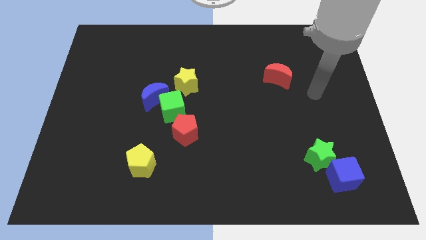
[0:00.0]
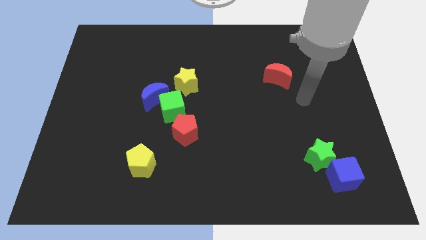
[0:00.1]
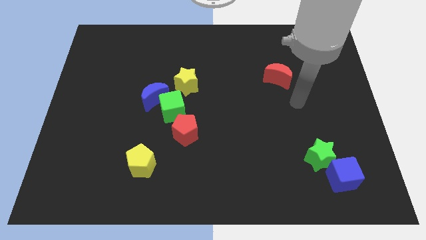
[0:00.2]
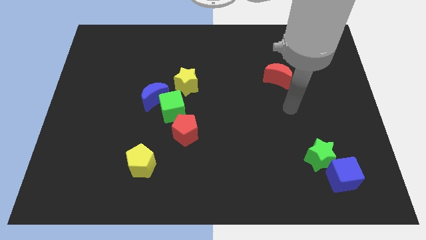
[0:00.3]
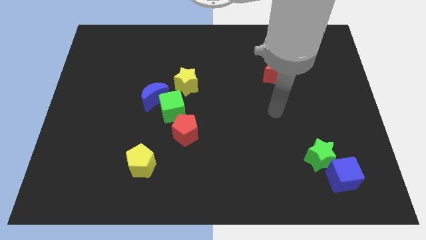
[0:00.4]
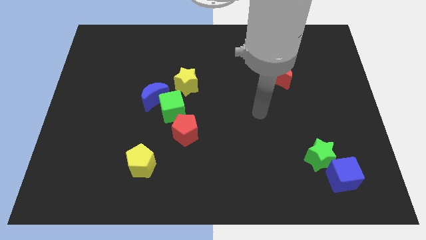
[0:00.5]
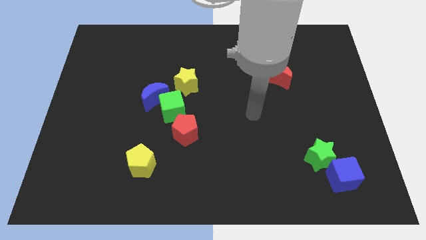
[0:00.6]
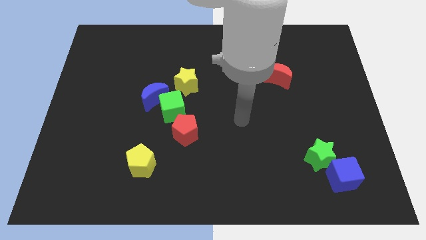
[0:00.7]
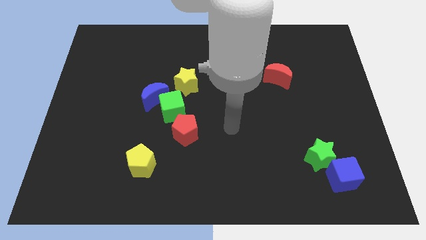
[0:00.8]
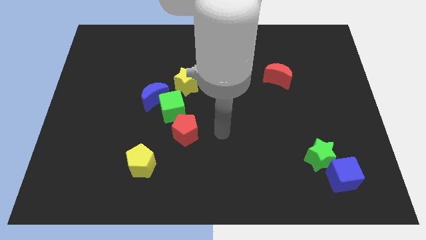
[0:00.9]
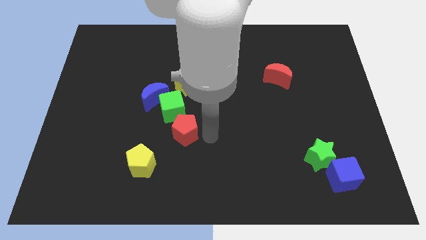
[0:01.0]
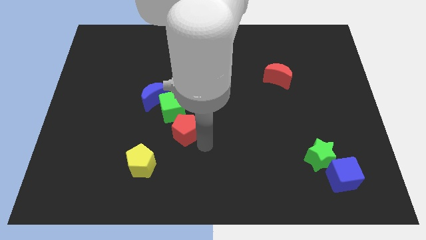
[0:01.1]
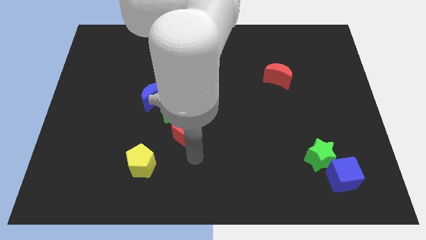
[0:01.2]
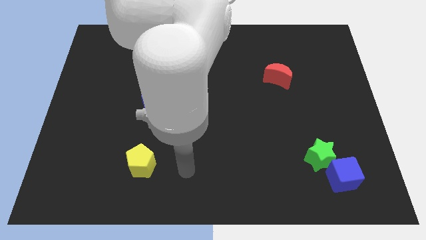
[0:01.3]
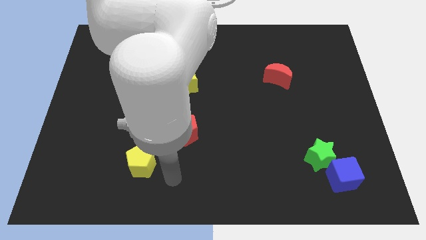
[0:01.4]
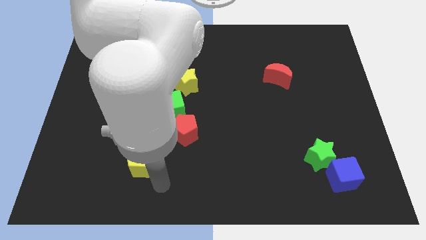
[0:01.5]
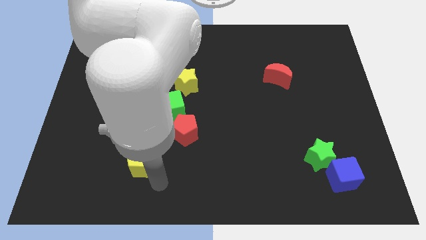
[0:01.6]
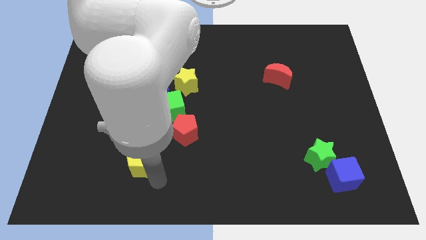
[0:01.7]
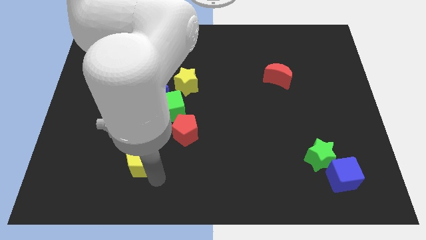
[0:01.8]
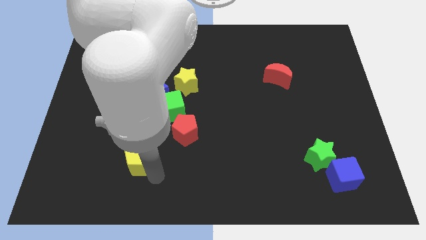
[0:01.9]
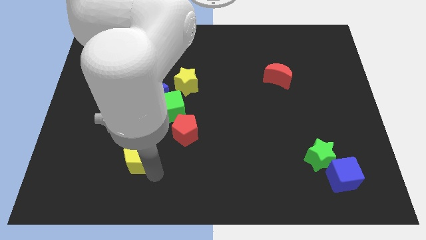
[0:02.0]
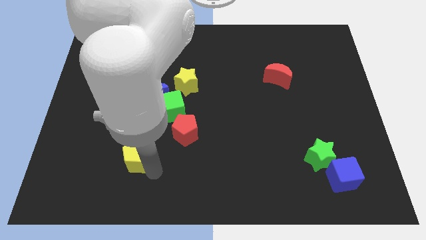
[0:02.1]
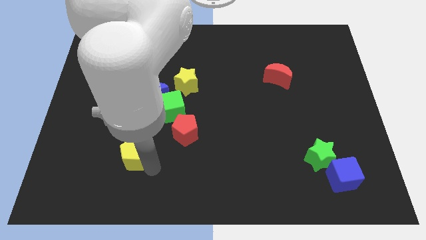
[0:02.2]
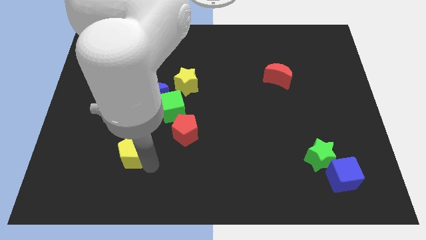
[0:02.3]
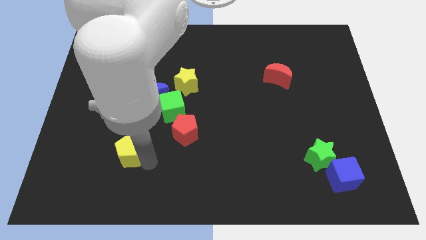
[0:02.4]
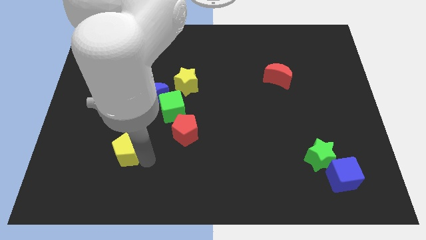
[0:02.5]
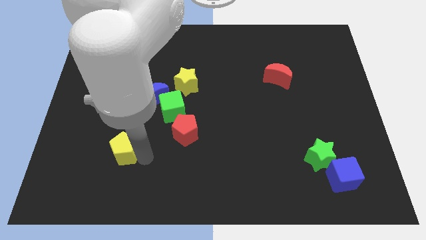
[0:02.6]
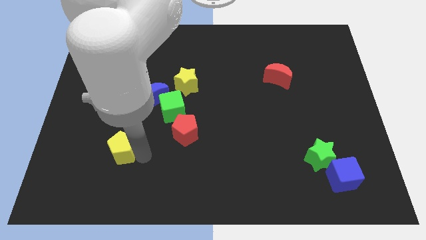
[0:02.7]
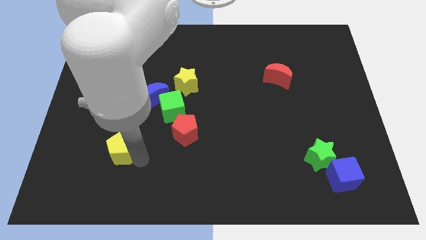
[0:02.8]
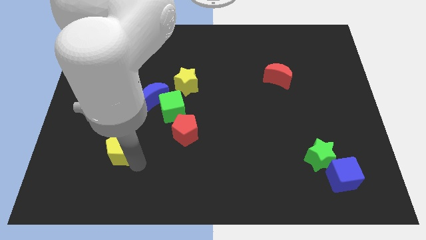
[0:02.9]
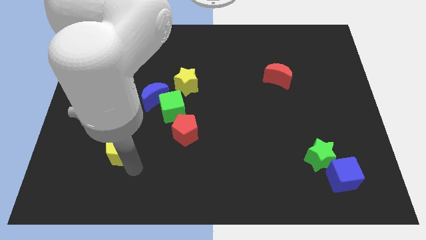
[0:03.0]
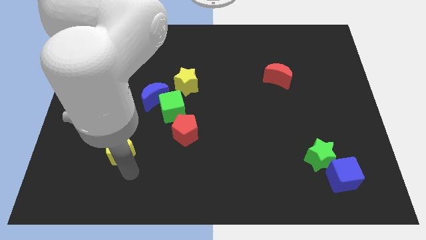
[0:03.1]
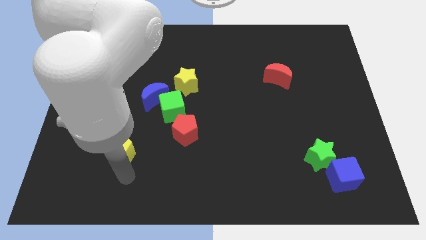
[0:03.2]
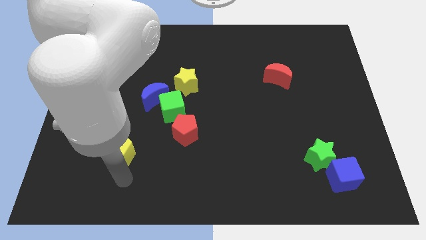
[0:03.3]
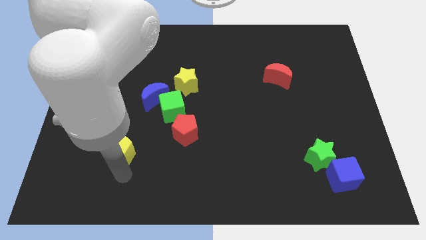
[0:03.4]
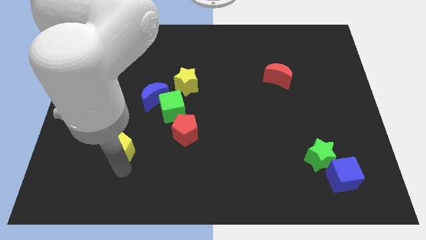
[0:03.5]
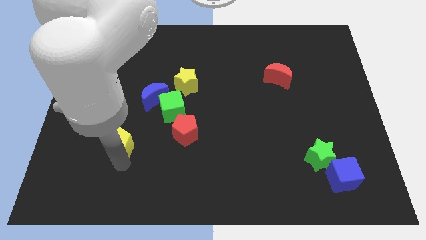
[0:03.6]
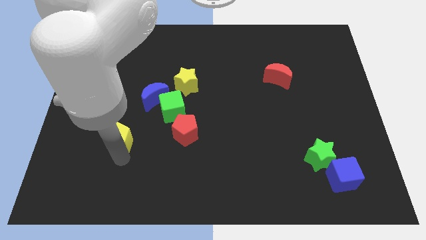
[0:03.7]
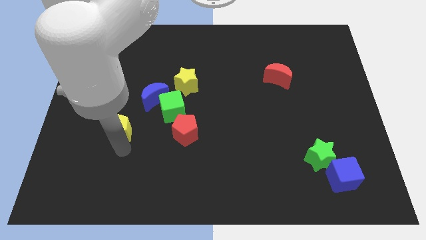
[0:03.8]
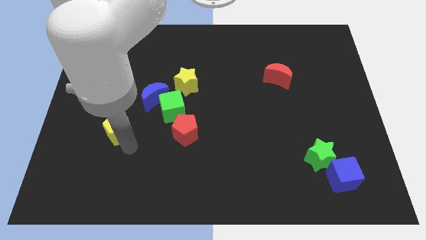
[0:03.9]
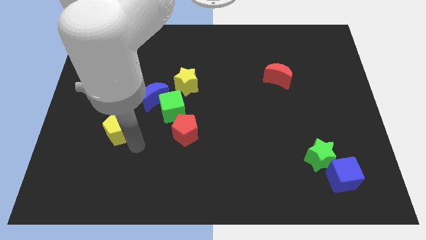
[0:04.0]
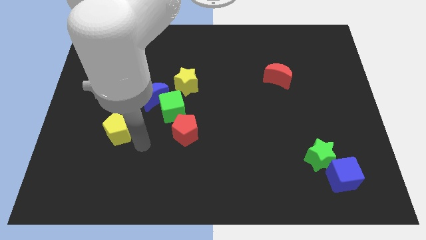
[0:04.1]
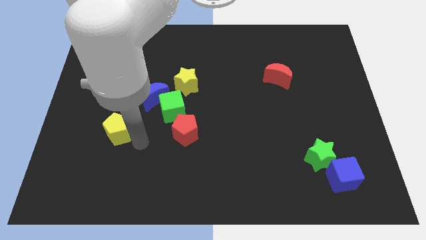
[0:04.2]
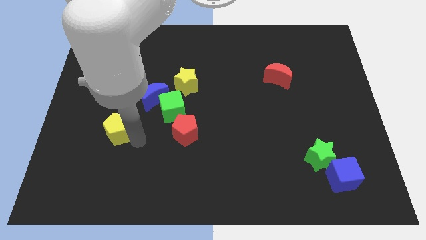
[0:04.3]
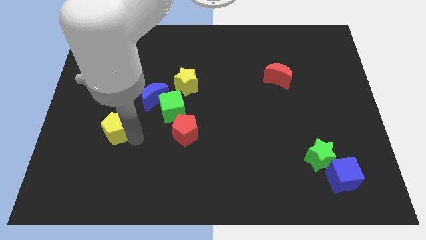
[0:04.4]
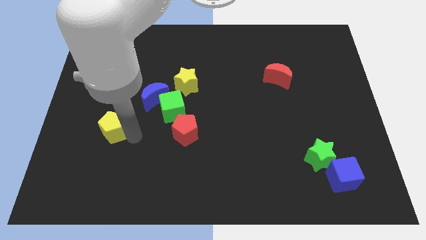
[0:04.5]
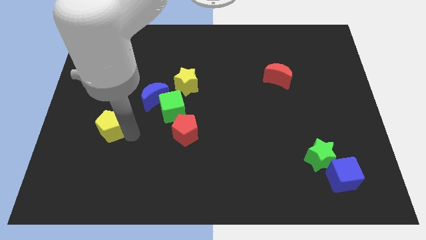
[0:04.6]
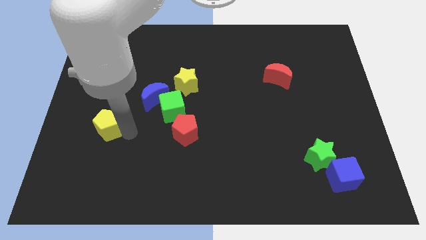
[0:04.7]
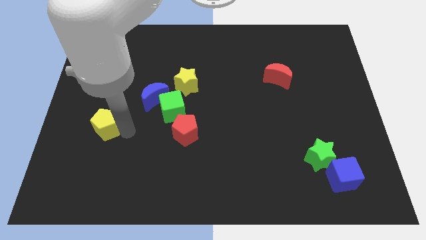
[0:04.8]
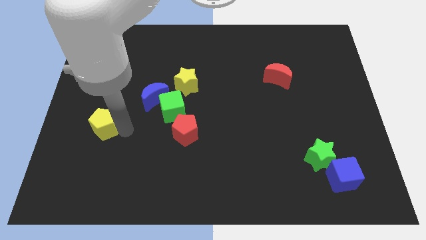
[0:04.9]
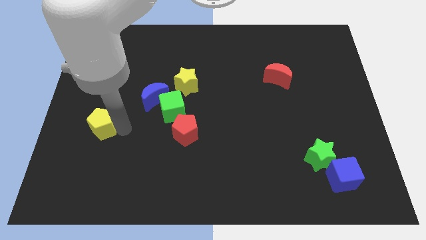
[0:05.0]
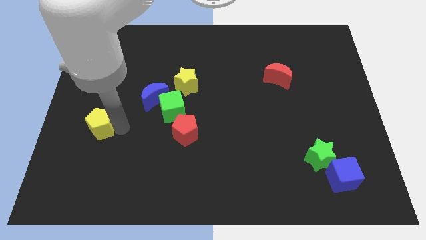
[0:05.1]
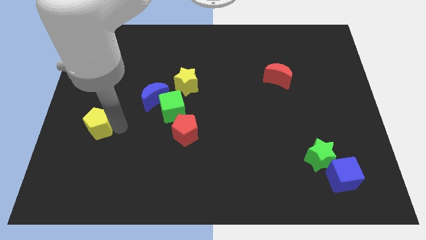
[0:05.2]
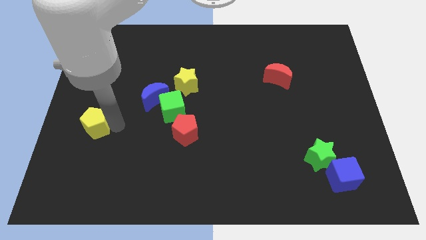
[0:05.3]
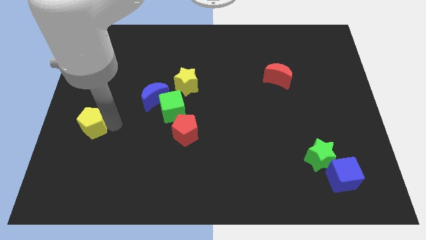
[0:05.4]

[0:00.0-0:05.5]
move the yellow pentagon to the center left

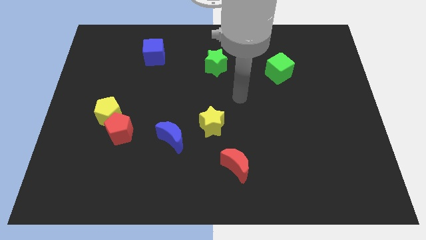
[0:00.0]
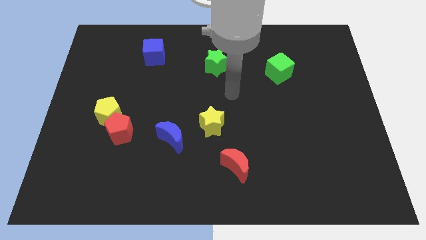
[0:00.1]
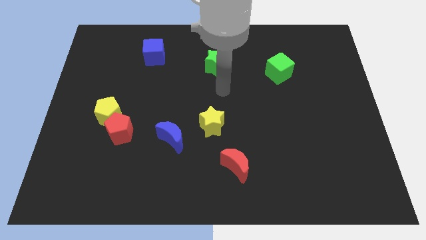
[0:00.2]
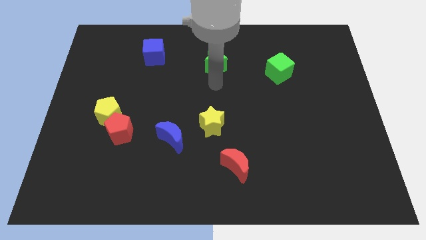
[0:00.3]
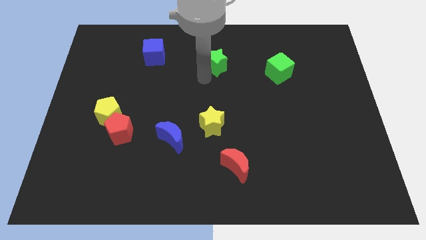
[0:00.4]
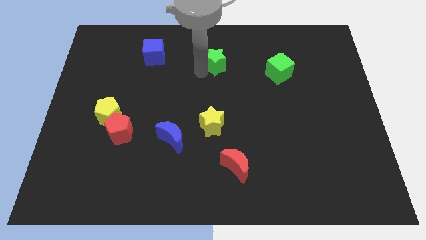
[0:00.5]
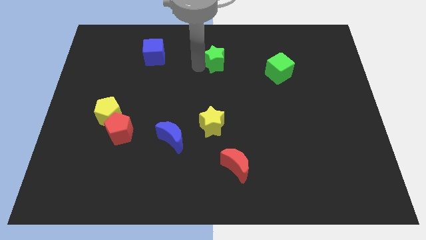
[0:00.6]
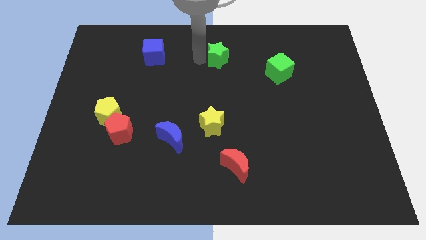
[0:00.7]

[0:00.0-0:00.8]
put the green star to the top
